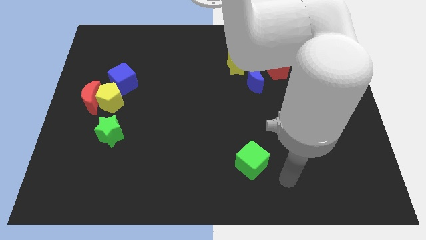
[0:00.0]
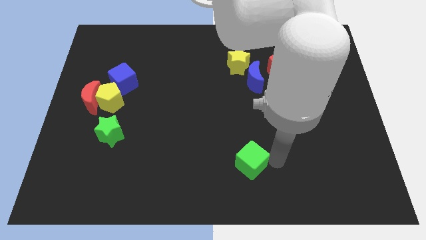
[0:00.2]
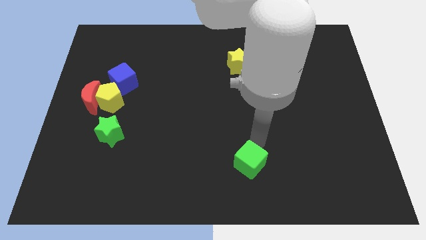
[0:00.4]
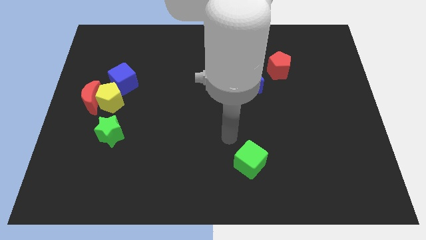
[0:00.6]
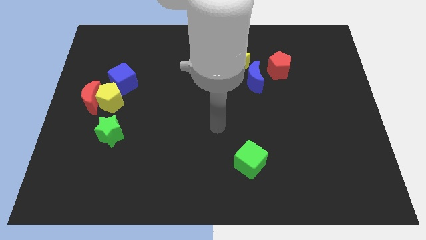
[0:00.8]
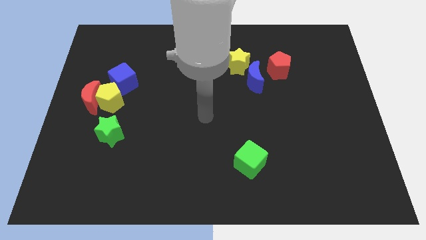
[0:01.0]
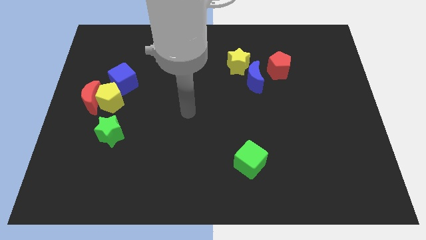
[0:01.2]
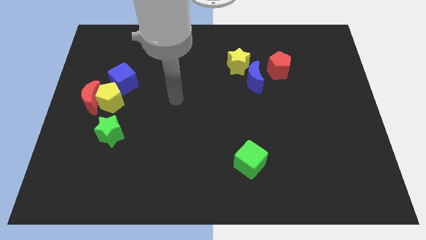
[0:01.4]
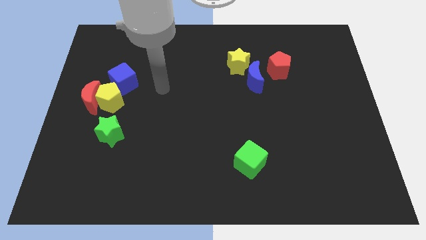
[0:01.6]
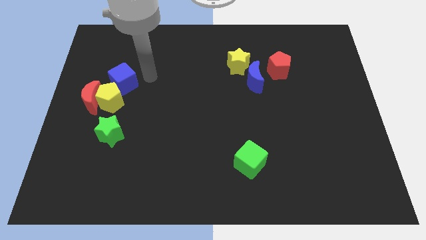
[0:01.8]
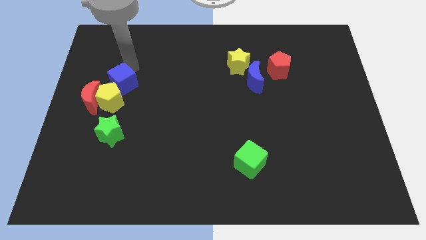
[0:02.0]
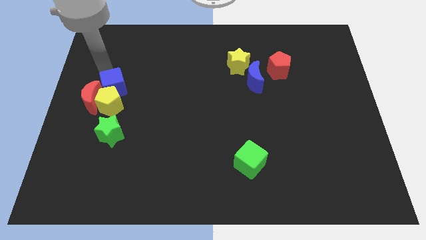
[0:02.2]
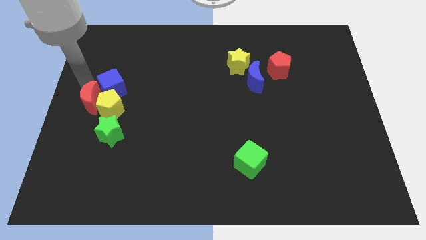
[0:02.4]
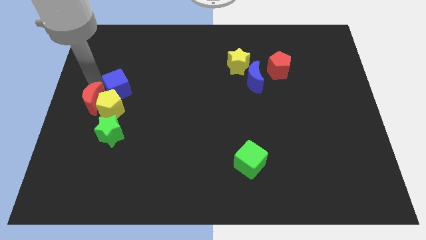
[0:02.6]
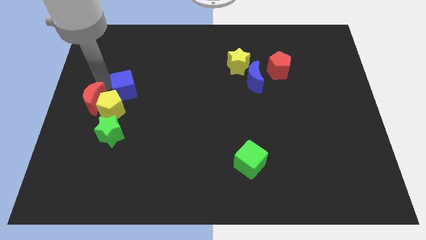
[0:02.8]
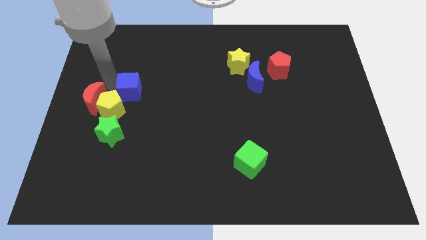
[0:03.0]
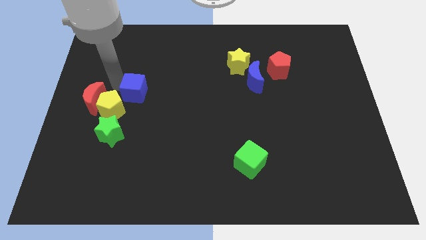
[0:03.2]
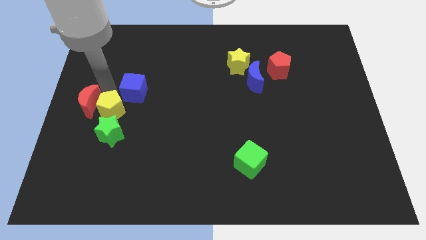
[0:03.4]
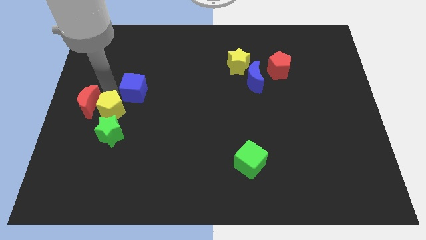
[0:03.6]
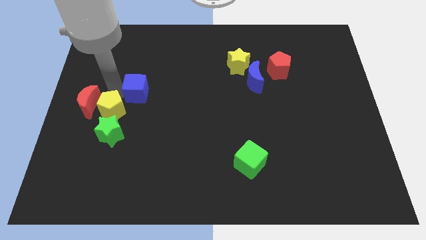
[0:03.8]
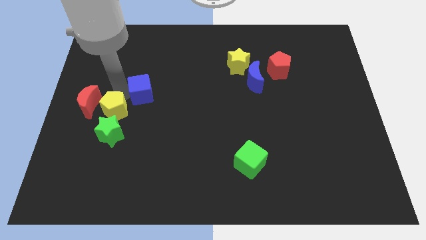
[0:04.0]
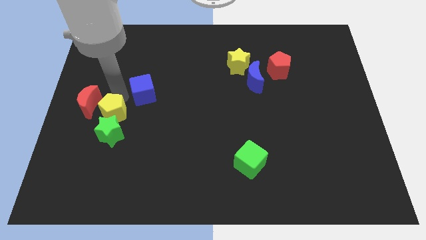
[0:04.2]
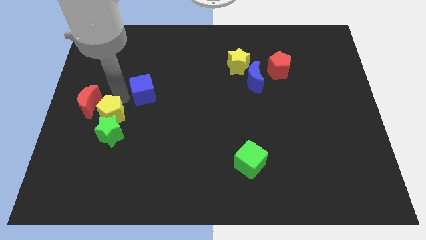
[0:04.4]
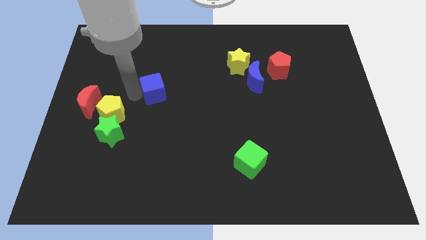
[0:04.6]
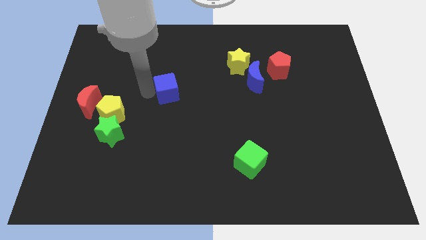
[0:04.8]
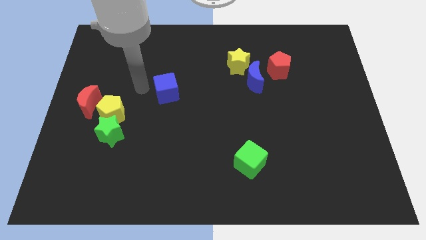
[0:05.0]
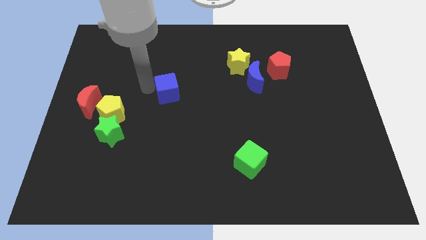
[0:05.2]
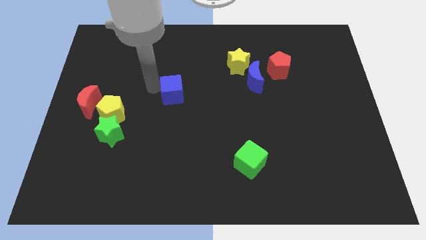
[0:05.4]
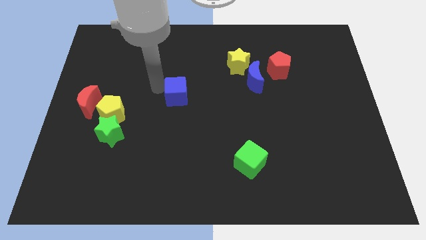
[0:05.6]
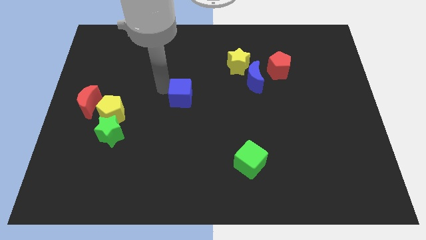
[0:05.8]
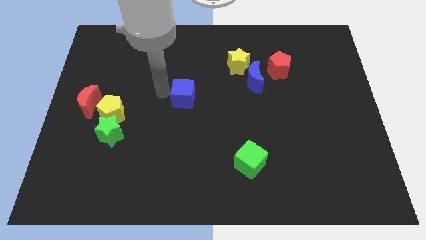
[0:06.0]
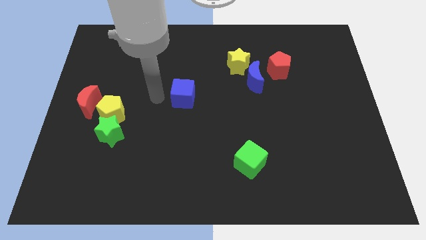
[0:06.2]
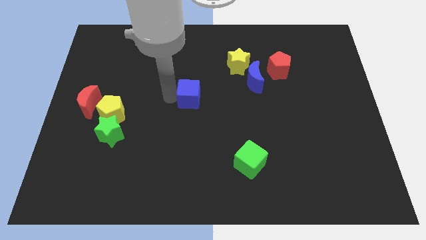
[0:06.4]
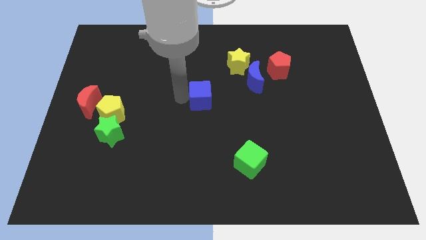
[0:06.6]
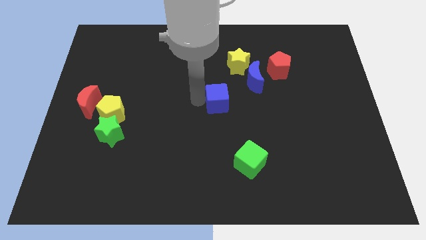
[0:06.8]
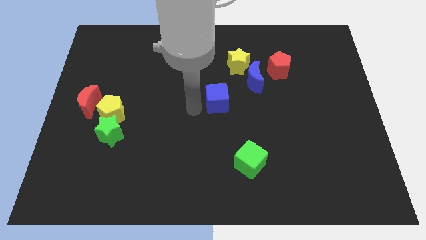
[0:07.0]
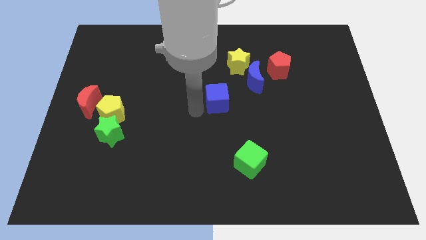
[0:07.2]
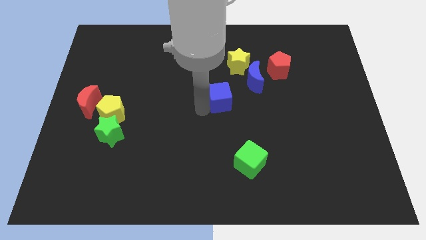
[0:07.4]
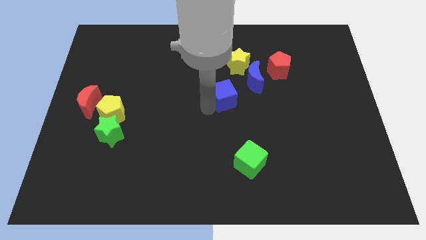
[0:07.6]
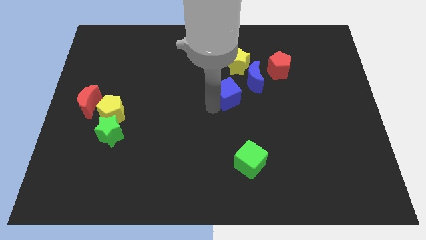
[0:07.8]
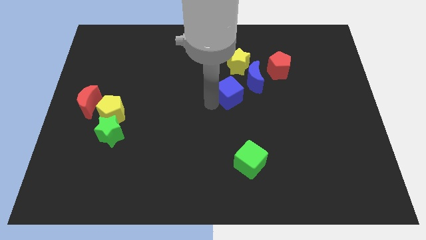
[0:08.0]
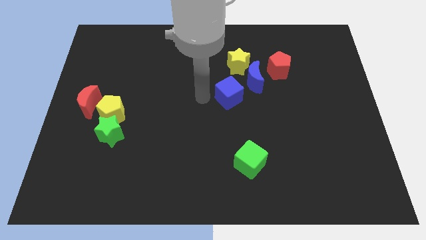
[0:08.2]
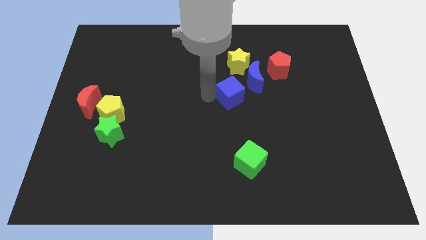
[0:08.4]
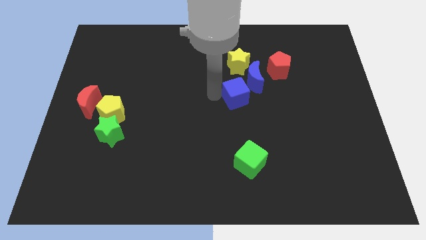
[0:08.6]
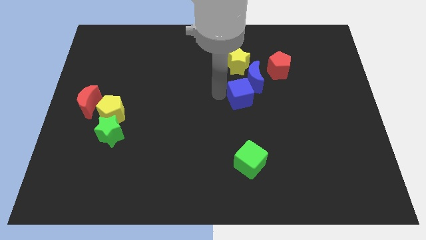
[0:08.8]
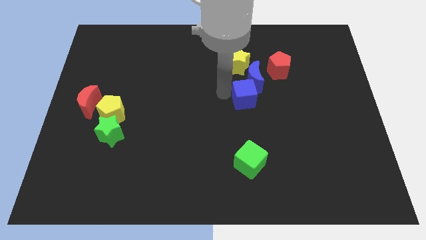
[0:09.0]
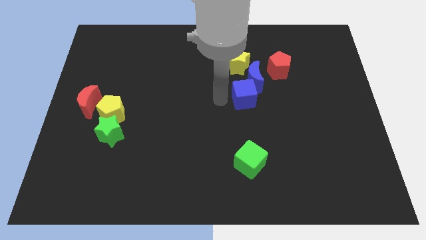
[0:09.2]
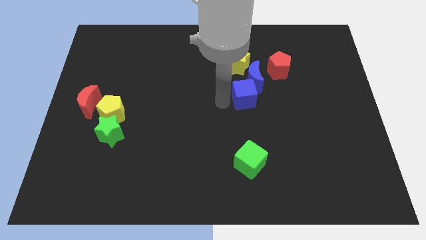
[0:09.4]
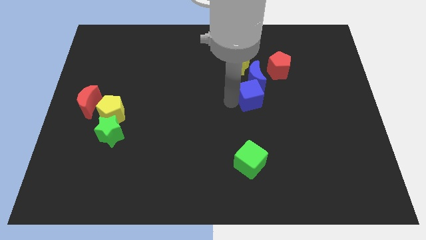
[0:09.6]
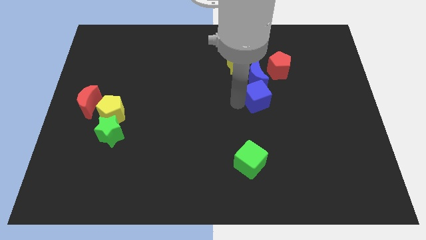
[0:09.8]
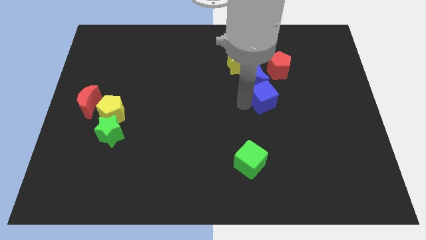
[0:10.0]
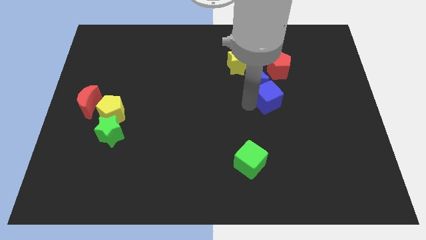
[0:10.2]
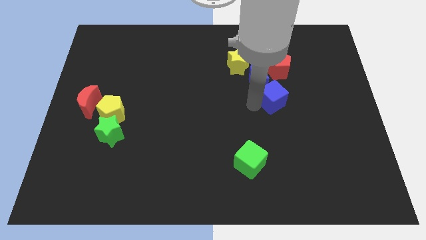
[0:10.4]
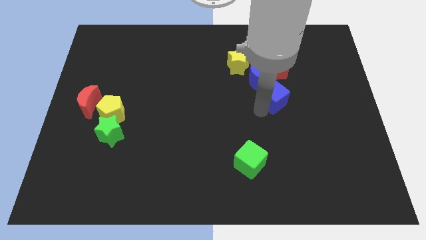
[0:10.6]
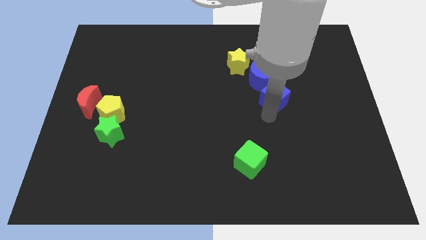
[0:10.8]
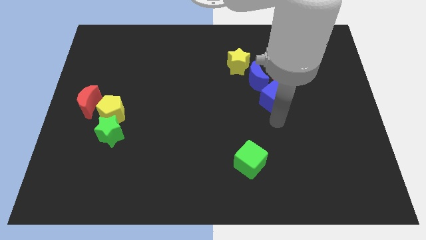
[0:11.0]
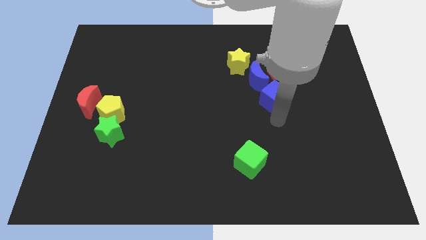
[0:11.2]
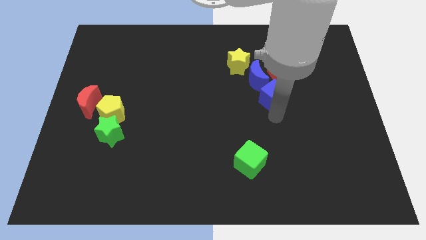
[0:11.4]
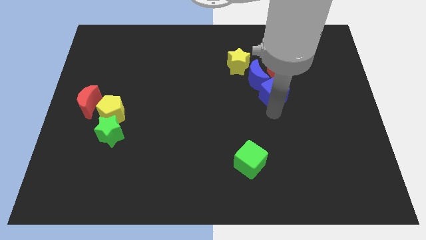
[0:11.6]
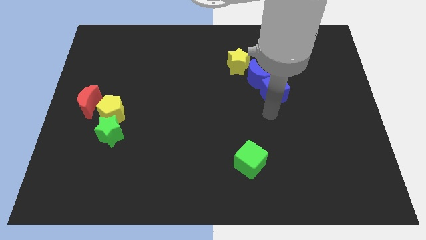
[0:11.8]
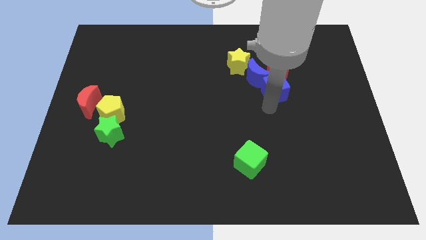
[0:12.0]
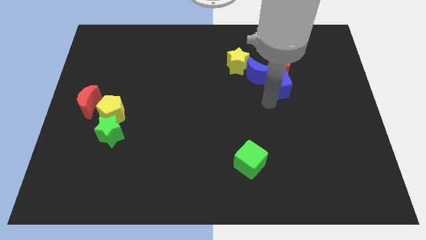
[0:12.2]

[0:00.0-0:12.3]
push the blue cube next to the red pentagon

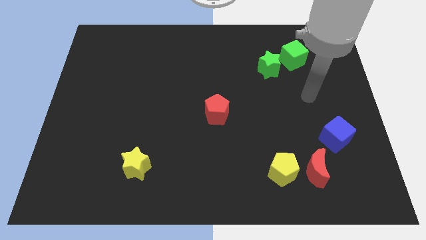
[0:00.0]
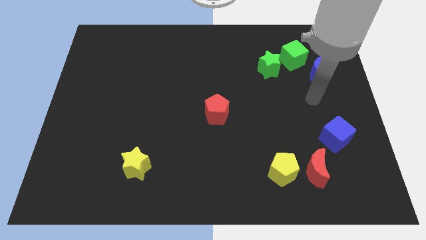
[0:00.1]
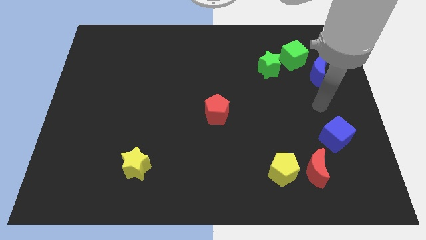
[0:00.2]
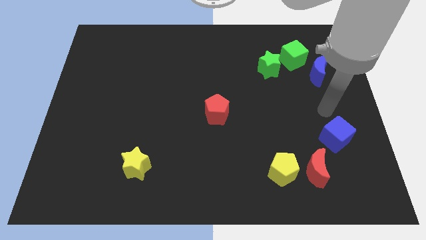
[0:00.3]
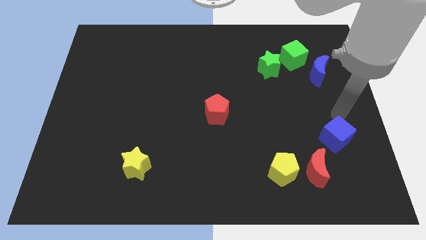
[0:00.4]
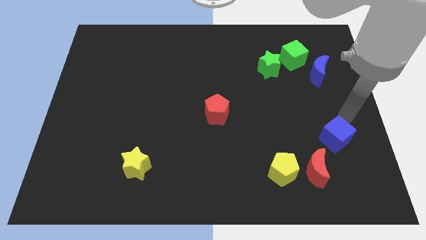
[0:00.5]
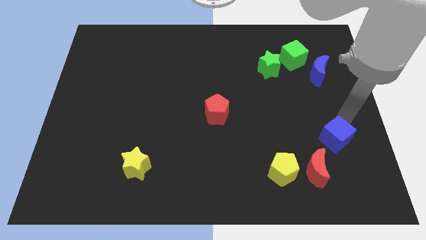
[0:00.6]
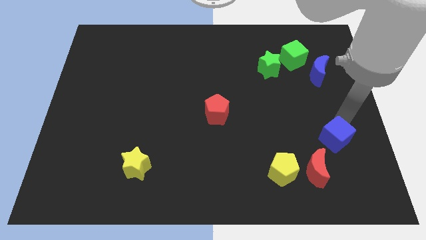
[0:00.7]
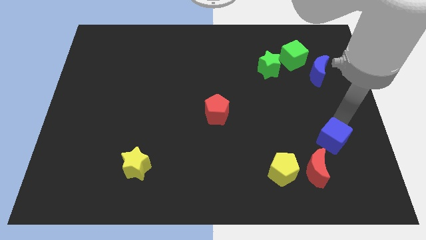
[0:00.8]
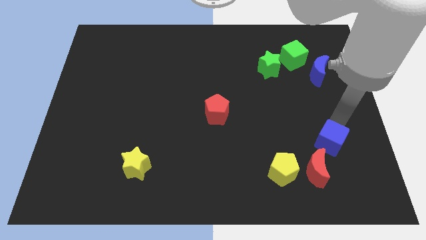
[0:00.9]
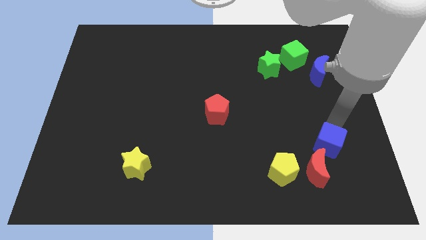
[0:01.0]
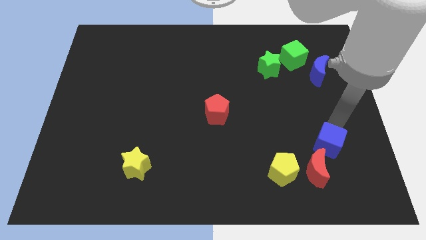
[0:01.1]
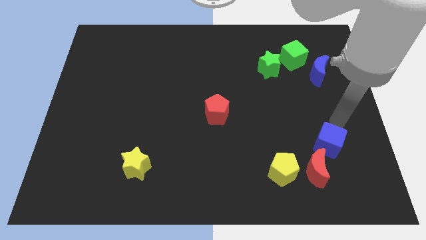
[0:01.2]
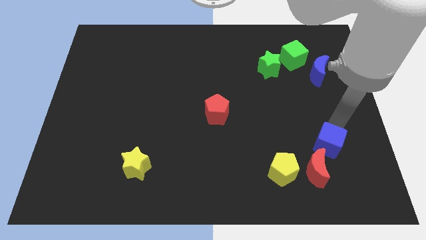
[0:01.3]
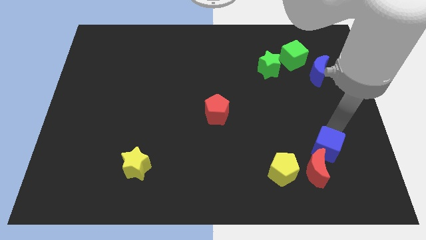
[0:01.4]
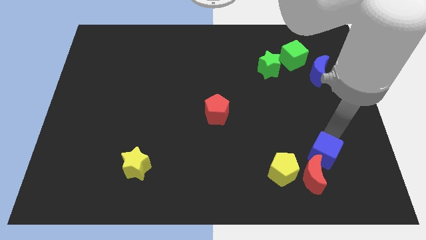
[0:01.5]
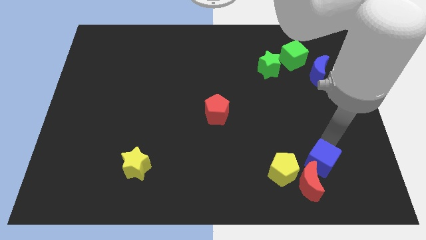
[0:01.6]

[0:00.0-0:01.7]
push the blue cube next to the red moon

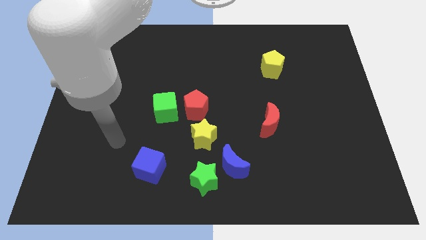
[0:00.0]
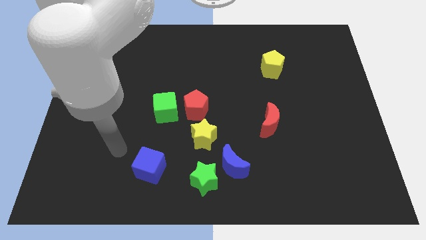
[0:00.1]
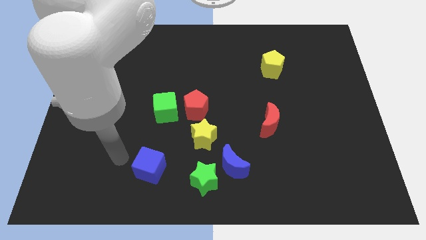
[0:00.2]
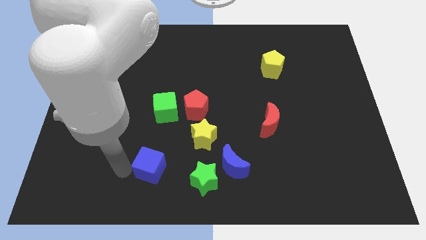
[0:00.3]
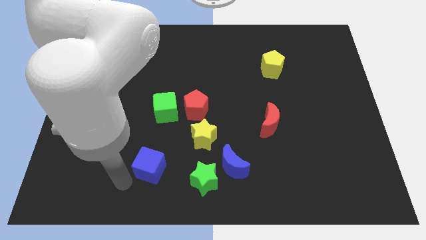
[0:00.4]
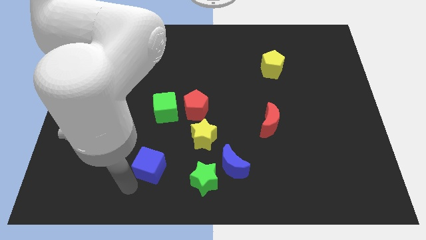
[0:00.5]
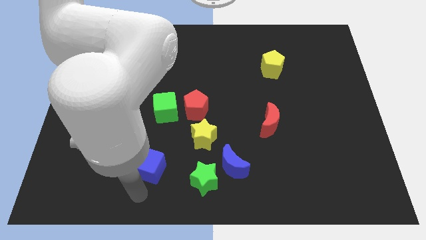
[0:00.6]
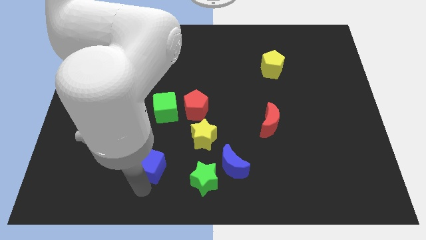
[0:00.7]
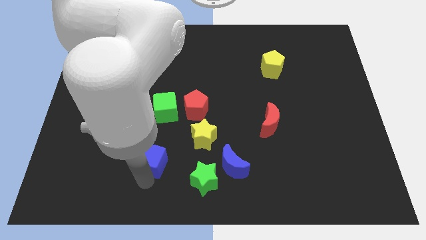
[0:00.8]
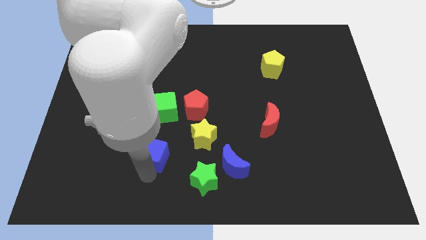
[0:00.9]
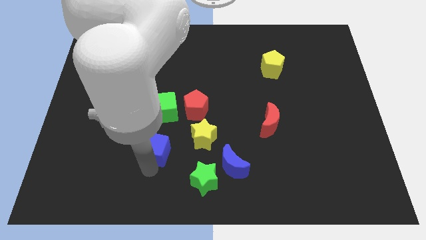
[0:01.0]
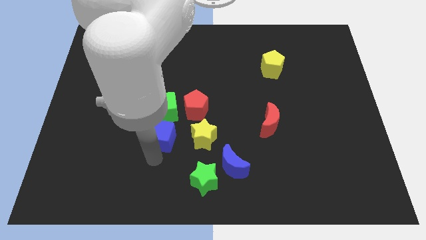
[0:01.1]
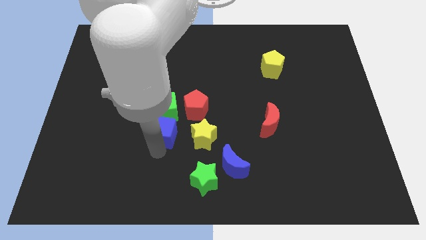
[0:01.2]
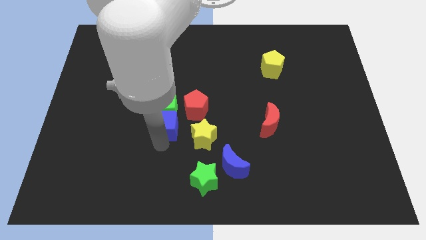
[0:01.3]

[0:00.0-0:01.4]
slide the blue cube close to the green cube
